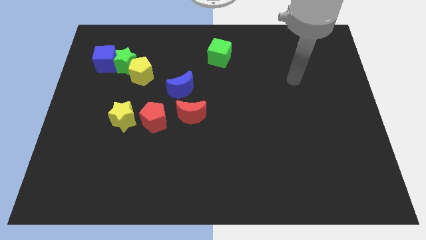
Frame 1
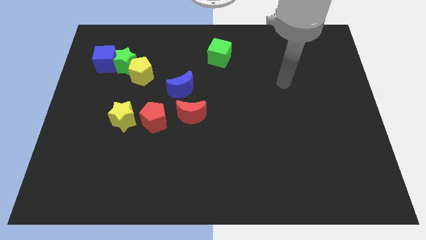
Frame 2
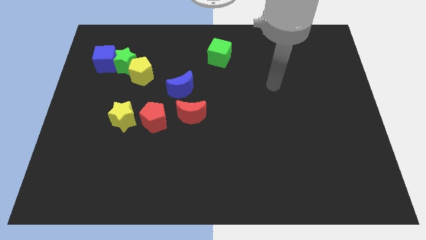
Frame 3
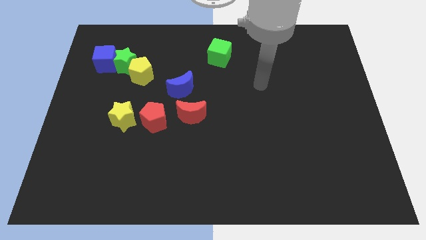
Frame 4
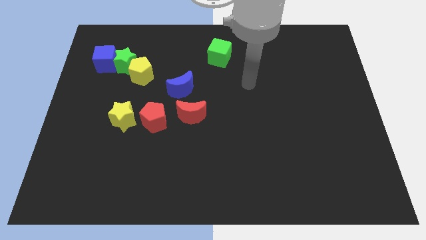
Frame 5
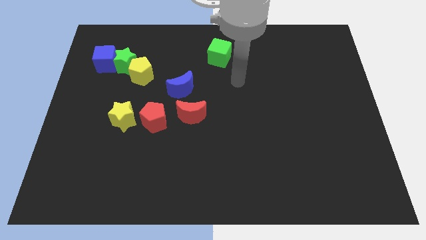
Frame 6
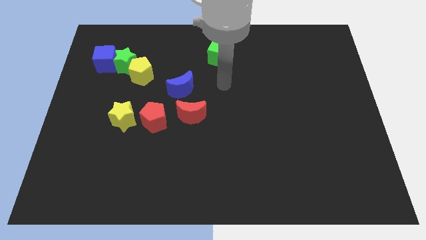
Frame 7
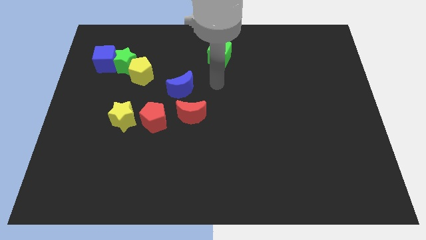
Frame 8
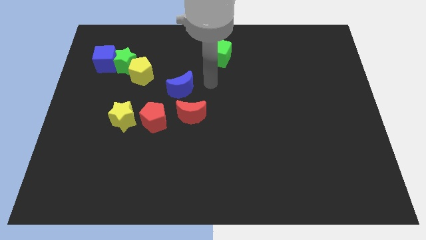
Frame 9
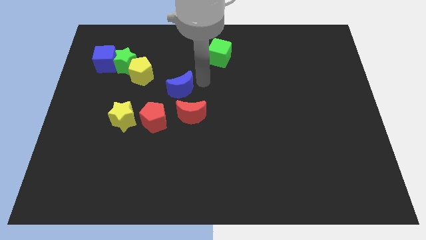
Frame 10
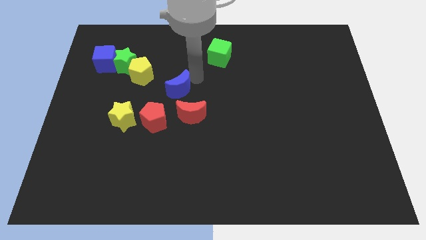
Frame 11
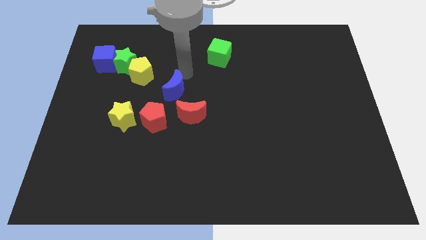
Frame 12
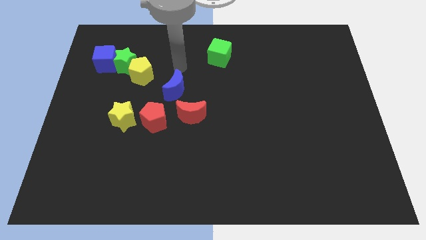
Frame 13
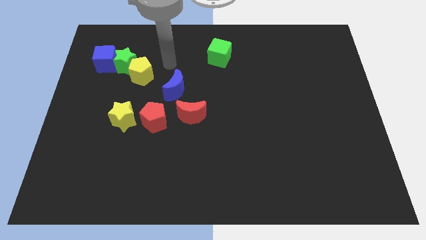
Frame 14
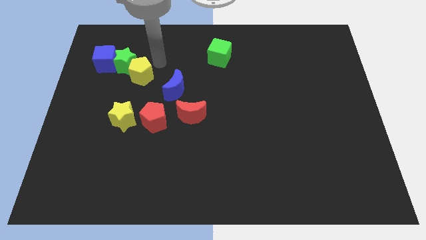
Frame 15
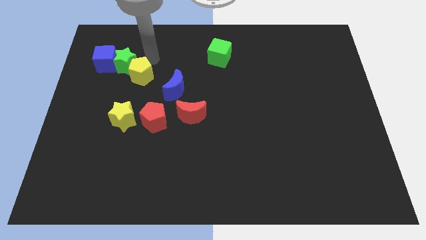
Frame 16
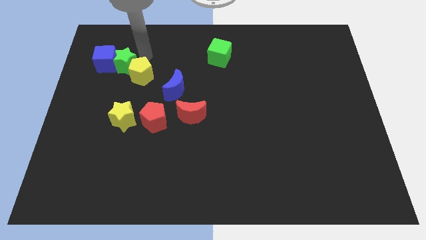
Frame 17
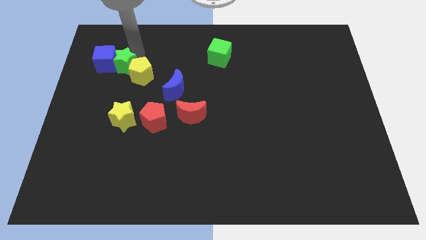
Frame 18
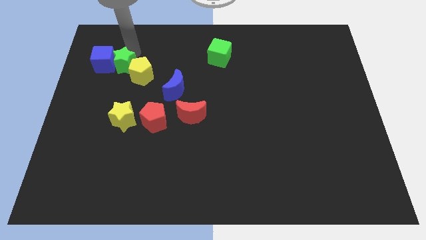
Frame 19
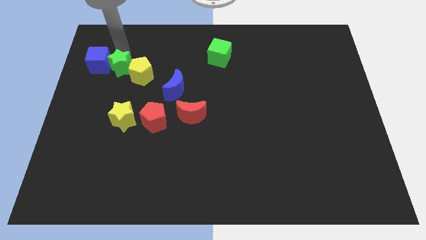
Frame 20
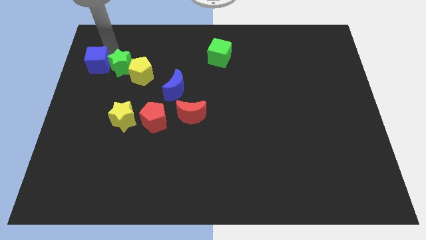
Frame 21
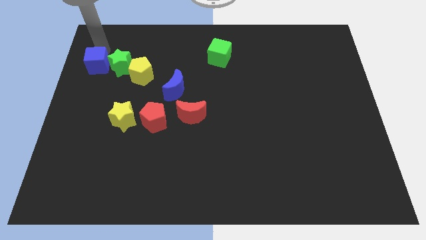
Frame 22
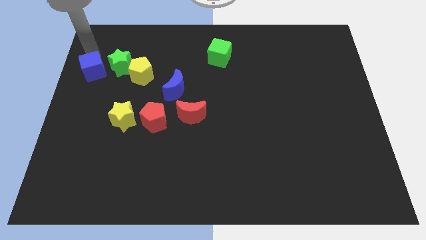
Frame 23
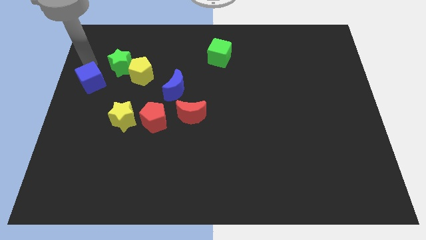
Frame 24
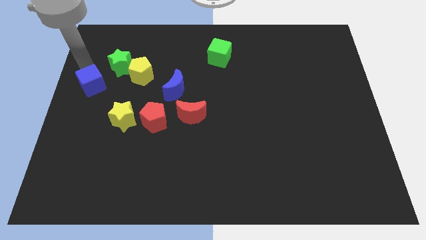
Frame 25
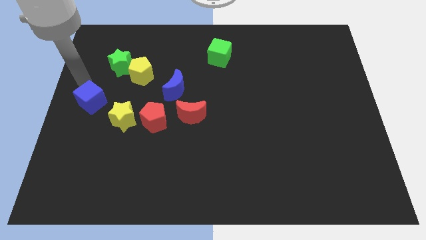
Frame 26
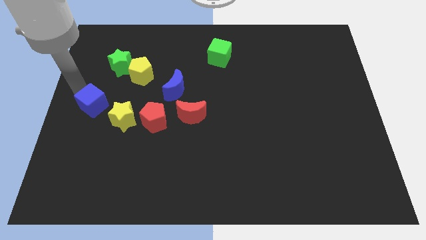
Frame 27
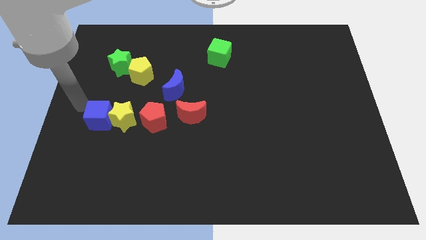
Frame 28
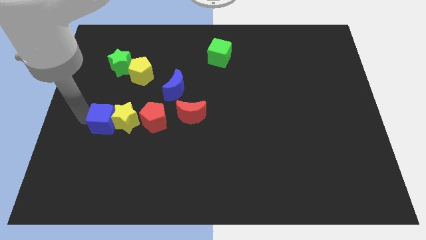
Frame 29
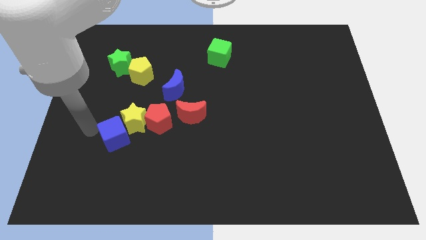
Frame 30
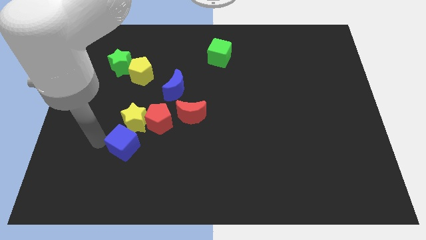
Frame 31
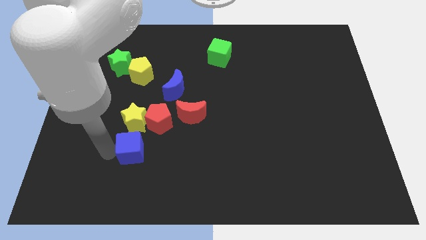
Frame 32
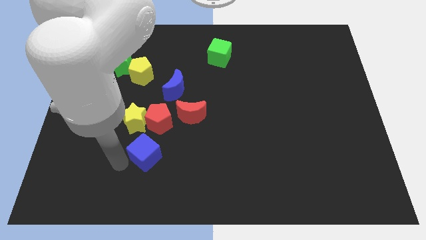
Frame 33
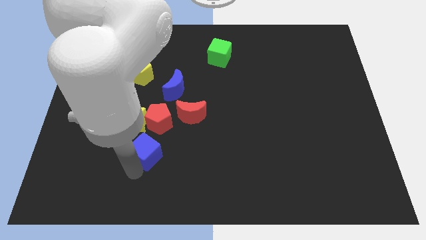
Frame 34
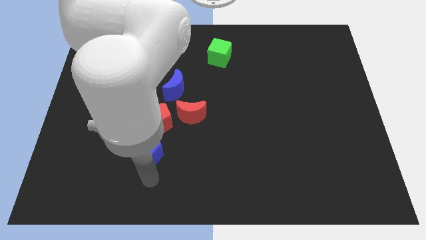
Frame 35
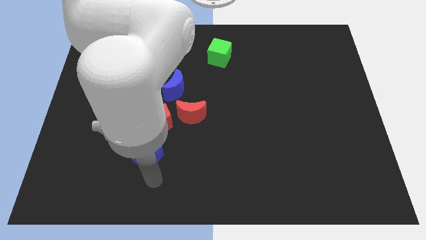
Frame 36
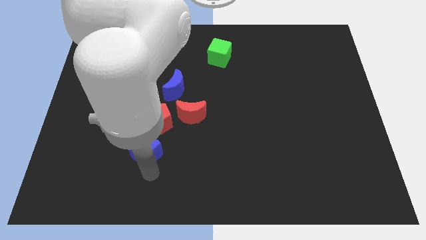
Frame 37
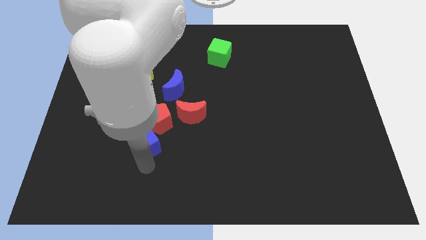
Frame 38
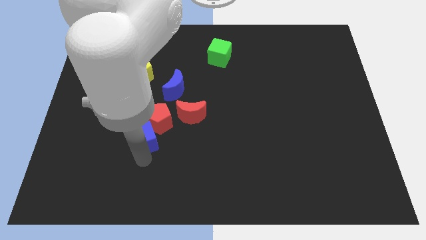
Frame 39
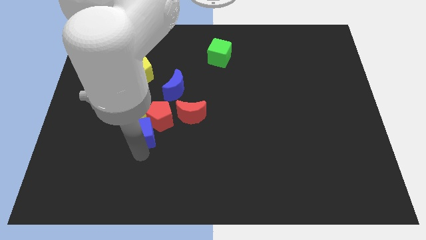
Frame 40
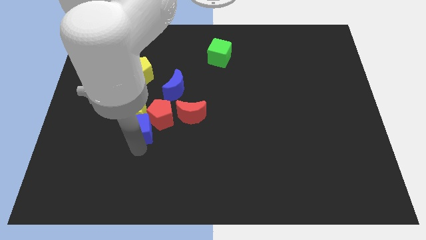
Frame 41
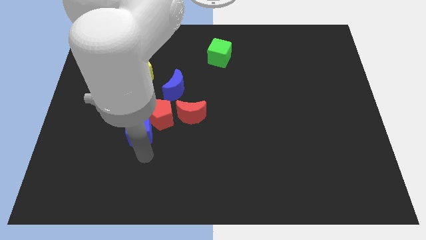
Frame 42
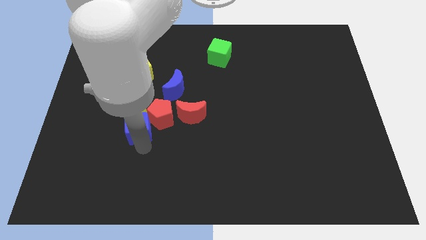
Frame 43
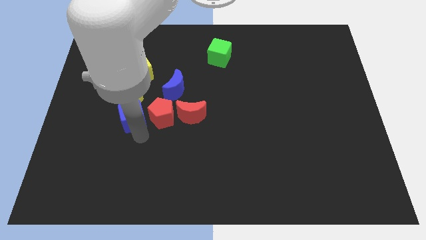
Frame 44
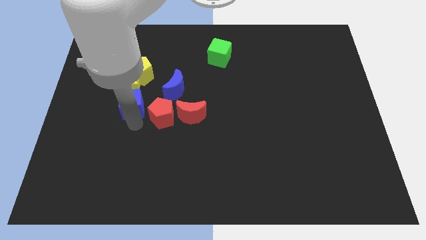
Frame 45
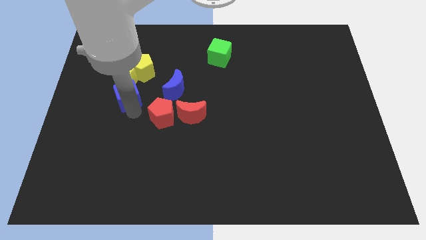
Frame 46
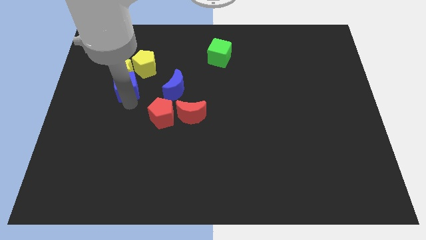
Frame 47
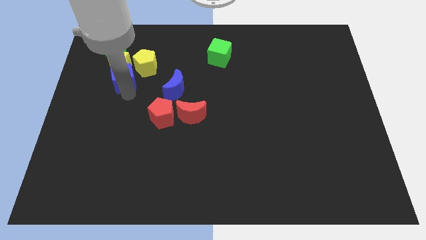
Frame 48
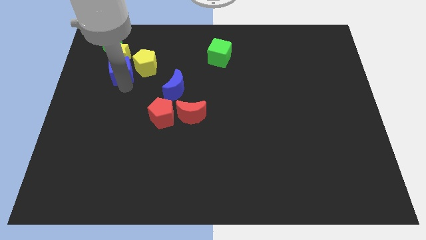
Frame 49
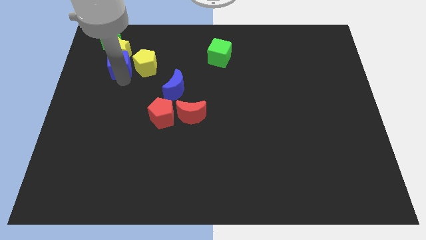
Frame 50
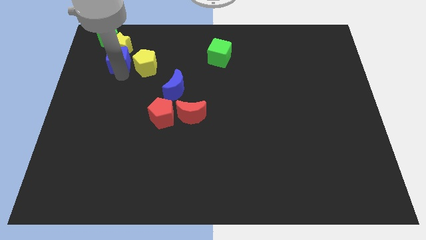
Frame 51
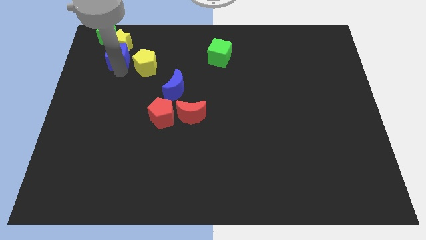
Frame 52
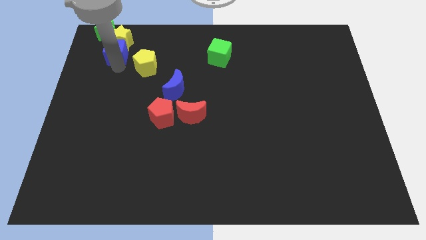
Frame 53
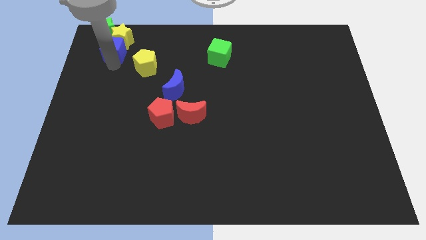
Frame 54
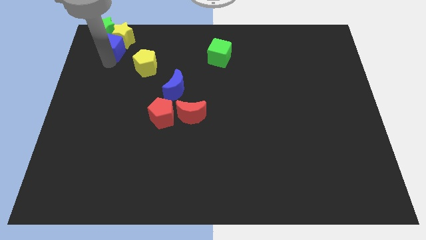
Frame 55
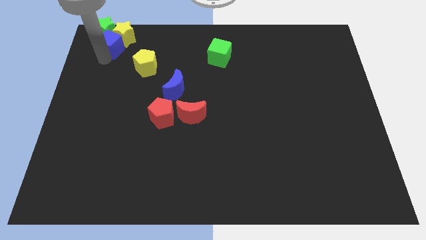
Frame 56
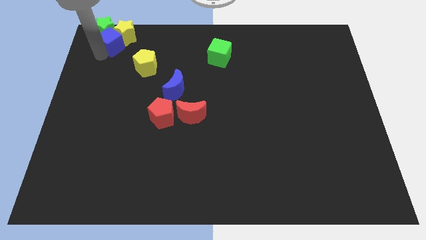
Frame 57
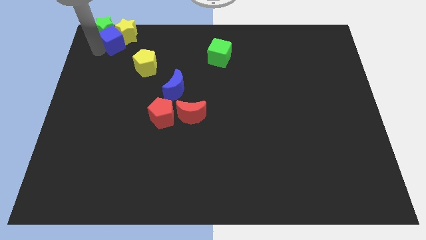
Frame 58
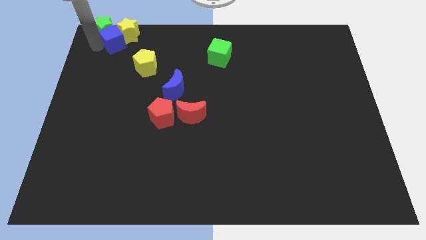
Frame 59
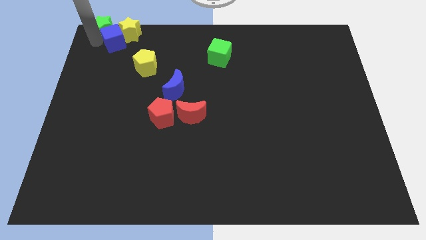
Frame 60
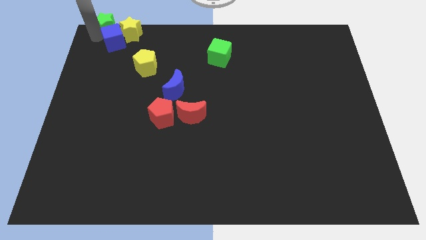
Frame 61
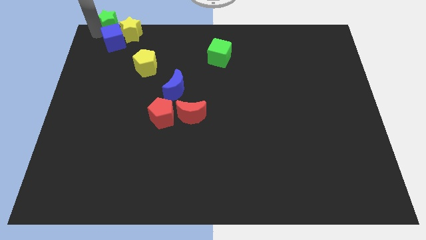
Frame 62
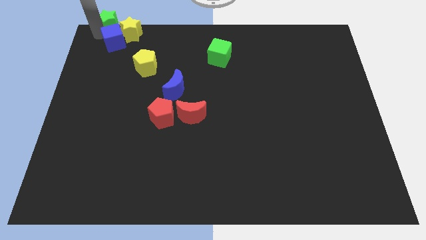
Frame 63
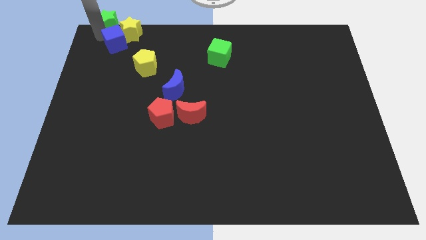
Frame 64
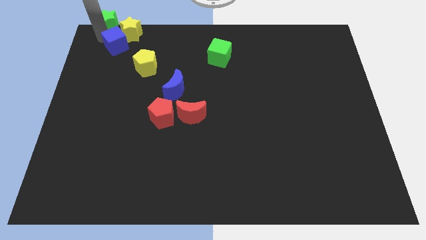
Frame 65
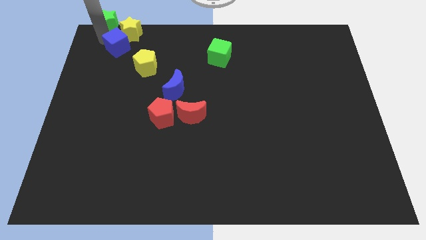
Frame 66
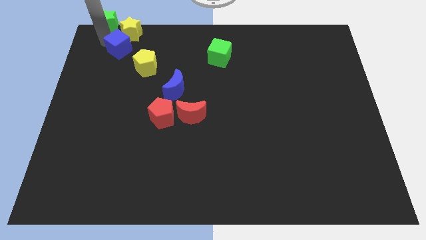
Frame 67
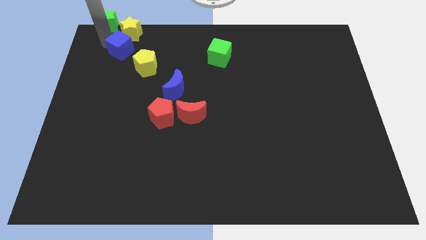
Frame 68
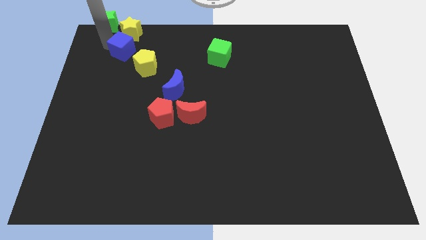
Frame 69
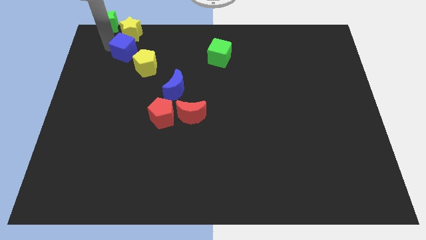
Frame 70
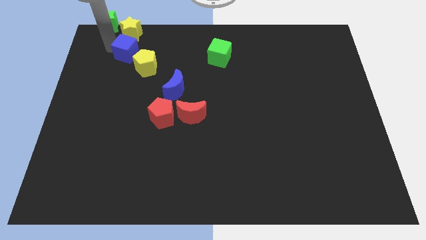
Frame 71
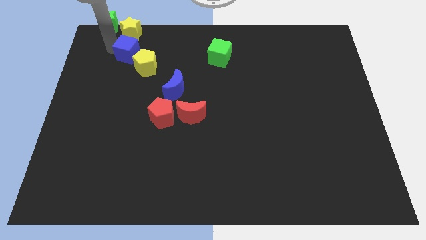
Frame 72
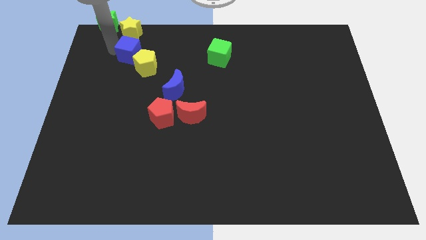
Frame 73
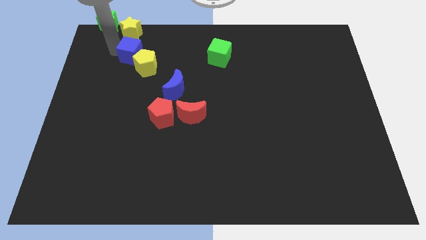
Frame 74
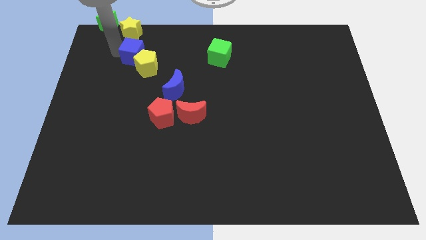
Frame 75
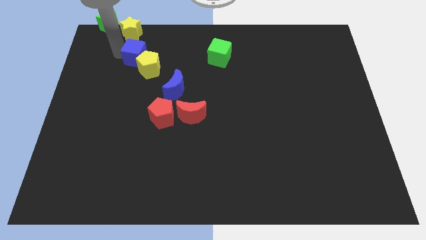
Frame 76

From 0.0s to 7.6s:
move the blue cube a little bit to the right

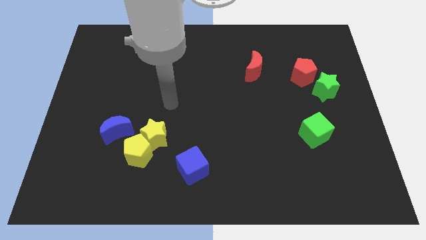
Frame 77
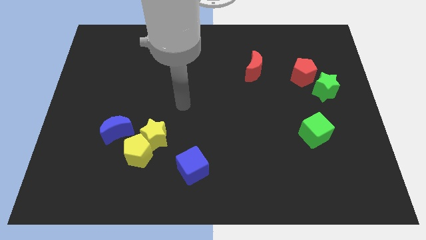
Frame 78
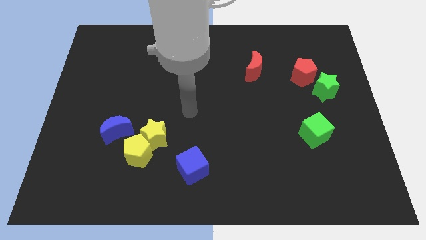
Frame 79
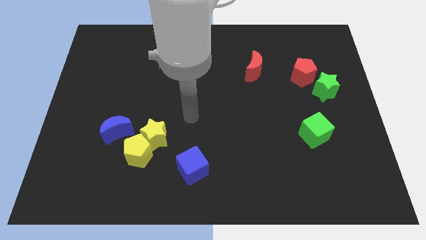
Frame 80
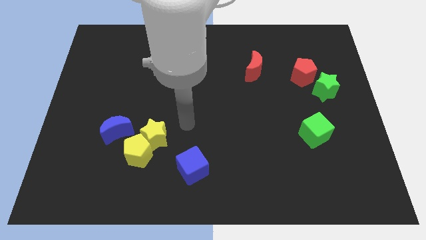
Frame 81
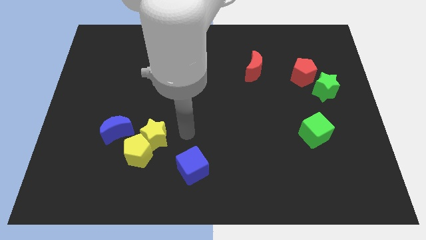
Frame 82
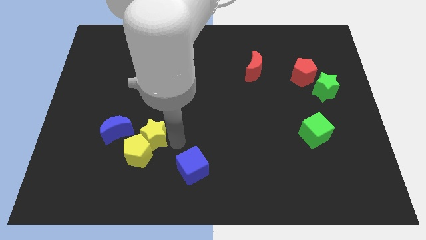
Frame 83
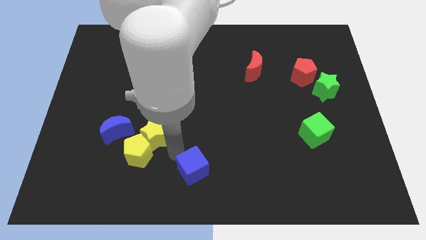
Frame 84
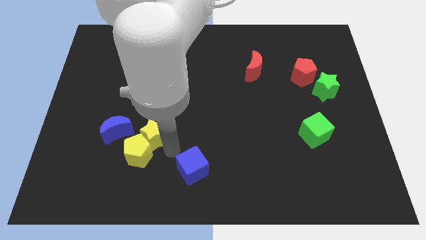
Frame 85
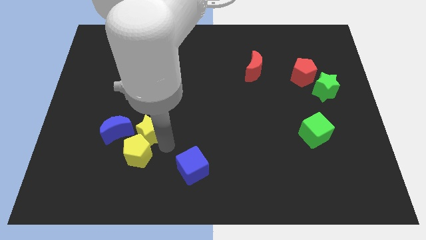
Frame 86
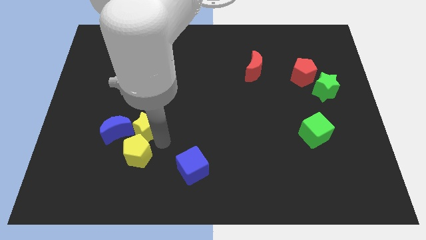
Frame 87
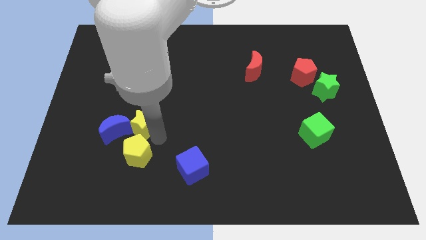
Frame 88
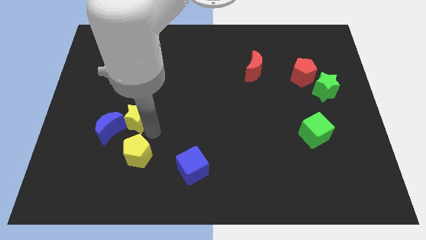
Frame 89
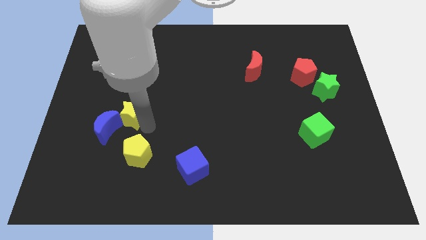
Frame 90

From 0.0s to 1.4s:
slide the yellow star somewhat diagonally up and left
